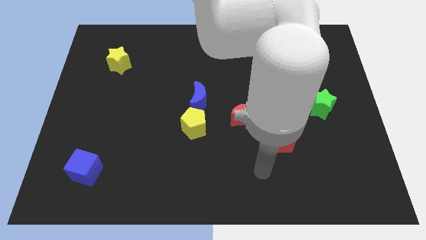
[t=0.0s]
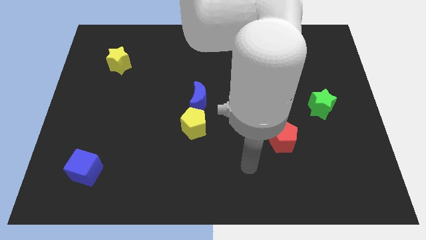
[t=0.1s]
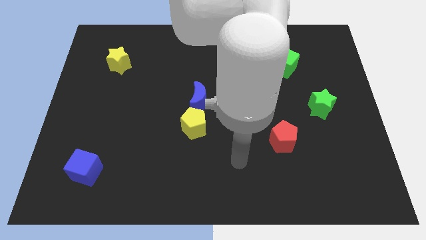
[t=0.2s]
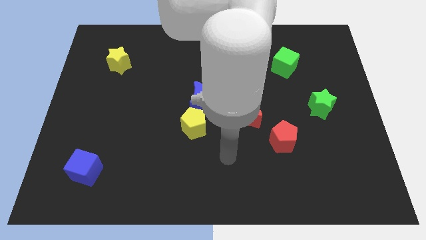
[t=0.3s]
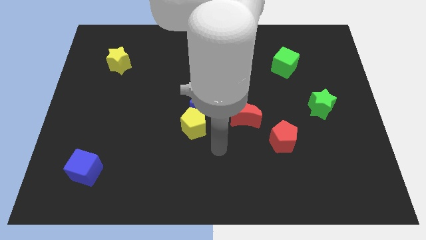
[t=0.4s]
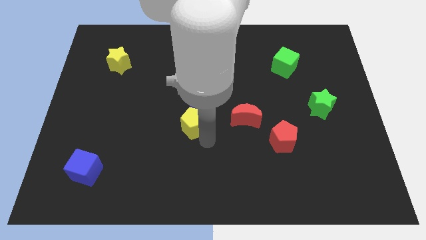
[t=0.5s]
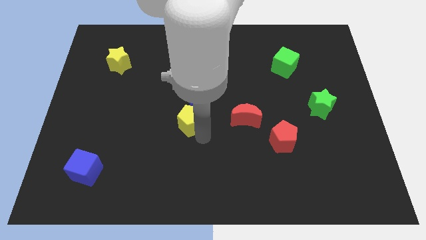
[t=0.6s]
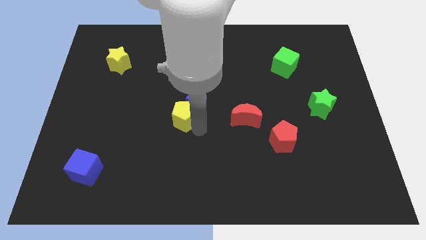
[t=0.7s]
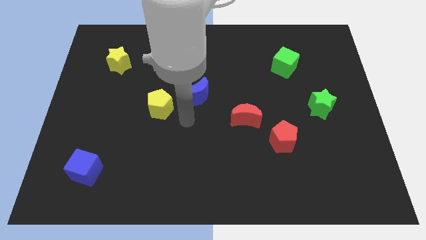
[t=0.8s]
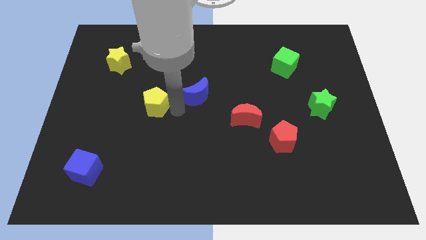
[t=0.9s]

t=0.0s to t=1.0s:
pull the blue moon apart from the yellow pentagon

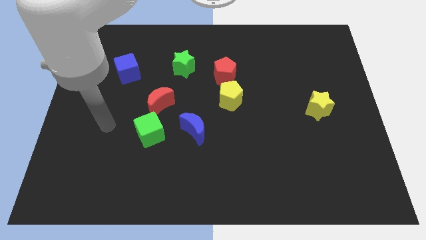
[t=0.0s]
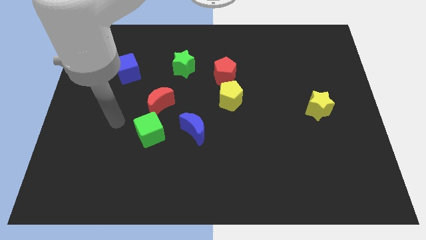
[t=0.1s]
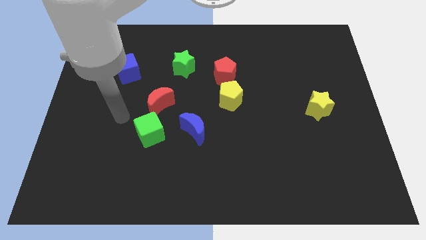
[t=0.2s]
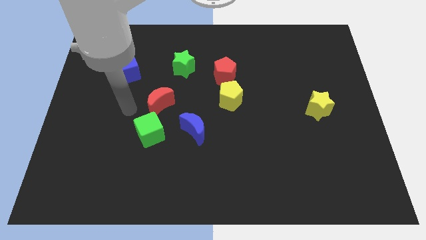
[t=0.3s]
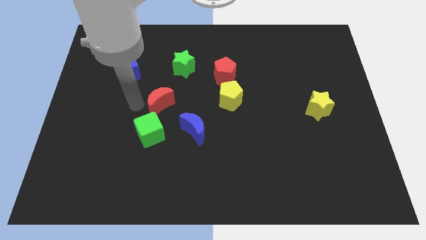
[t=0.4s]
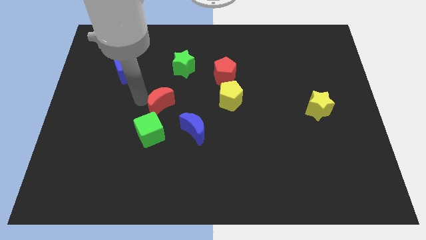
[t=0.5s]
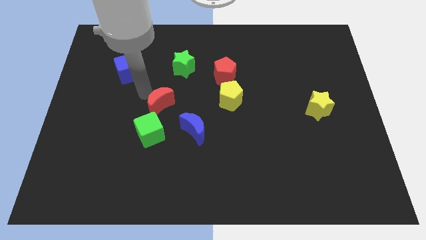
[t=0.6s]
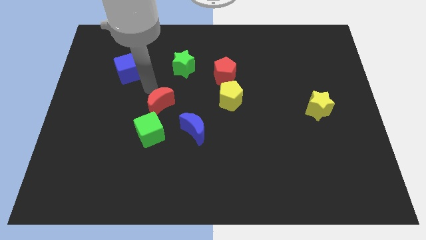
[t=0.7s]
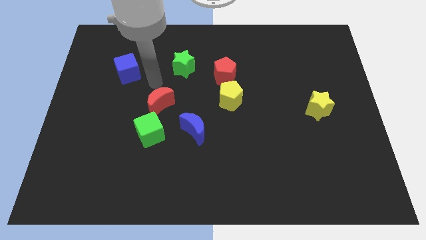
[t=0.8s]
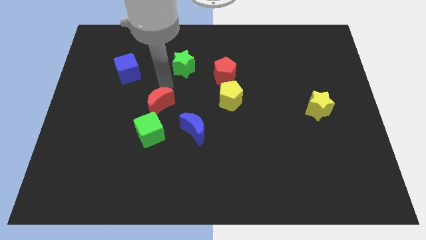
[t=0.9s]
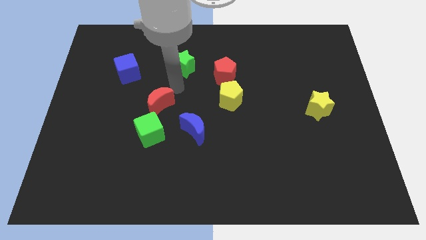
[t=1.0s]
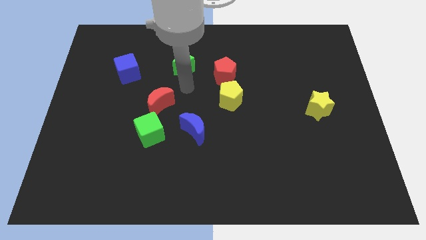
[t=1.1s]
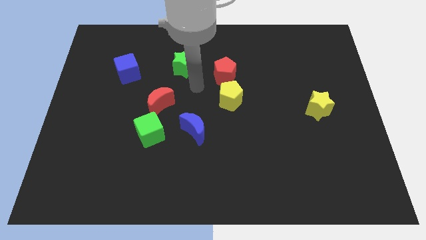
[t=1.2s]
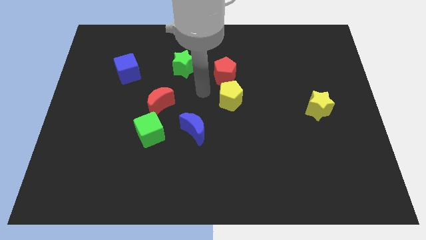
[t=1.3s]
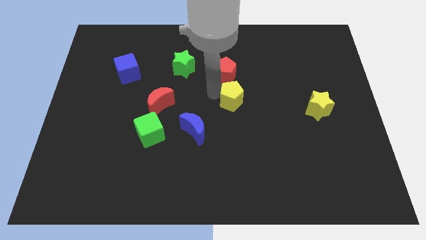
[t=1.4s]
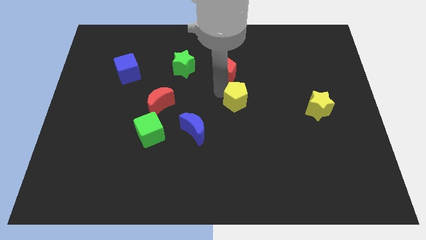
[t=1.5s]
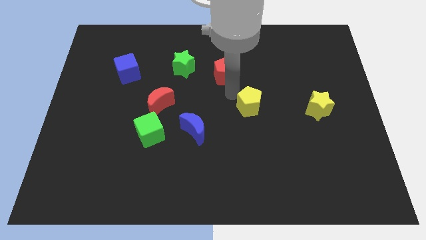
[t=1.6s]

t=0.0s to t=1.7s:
pull the red pentagon apart from the yellow pentagon

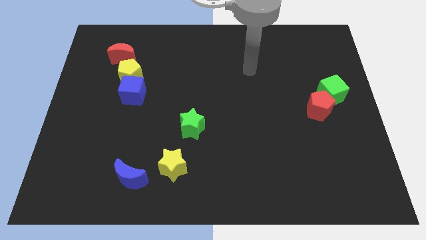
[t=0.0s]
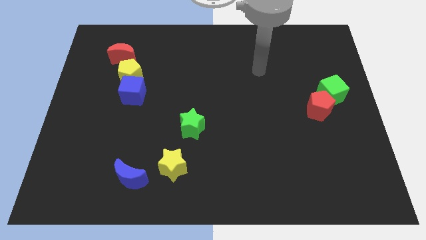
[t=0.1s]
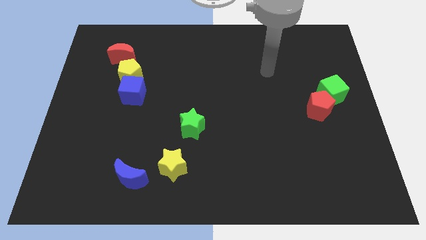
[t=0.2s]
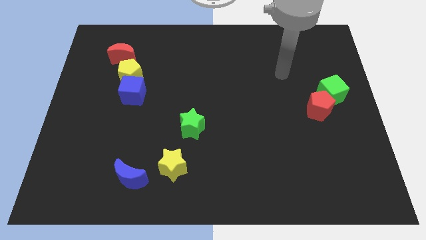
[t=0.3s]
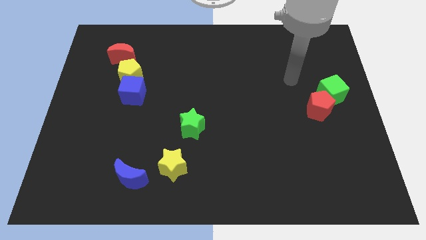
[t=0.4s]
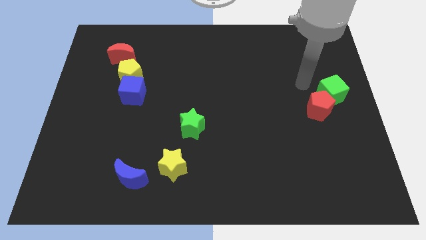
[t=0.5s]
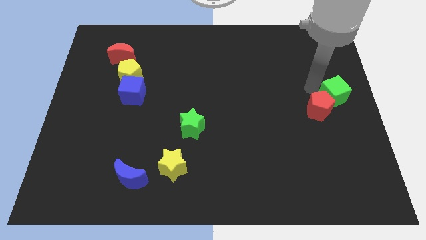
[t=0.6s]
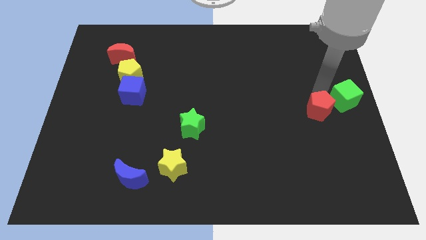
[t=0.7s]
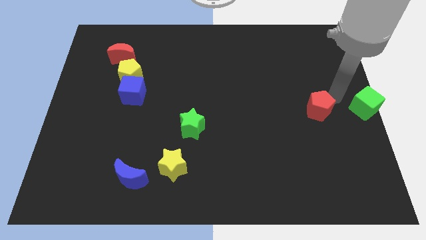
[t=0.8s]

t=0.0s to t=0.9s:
pull the red pentagon apart from the green cube

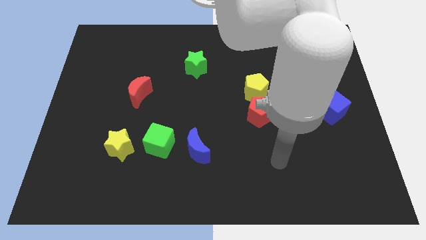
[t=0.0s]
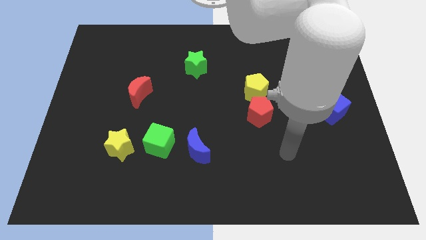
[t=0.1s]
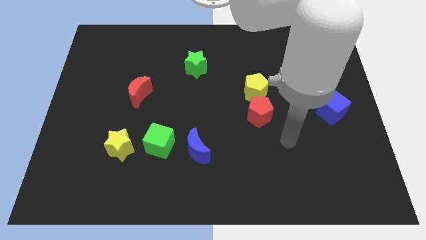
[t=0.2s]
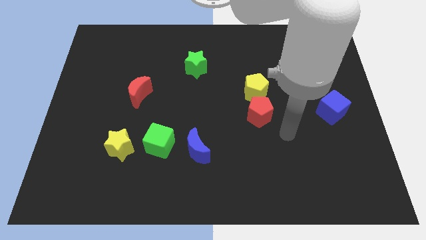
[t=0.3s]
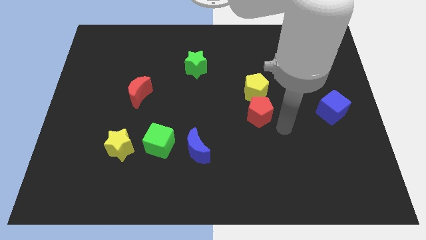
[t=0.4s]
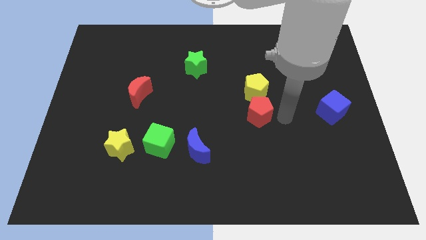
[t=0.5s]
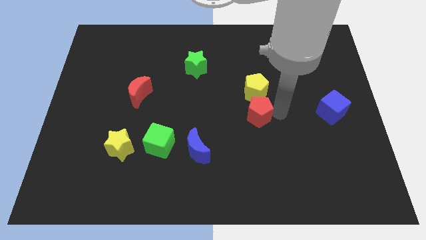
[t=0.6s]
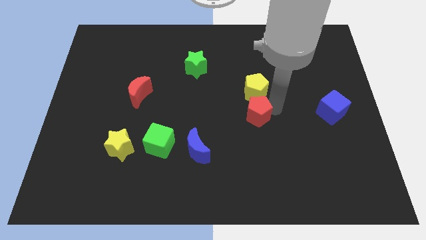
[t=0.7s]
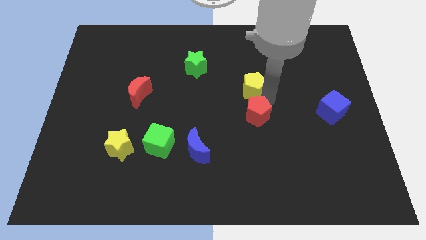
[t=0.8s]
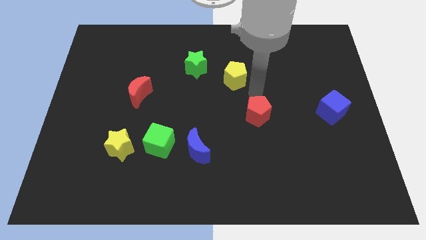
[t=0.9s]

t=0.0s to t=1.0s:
move the red pentagon away from the yellow pentagon

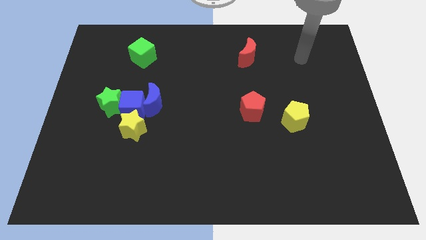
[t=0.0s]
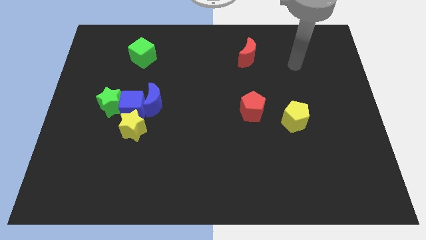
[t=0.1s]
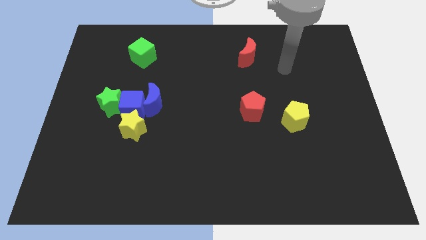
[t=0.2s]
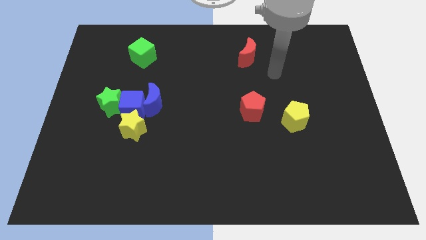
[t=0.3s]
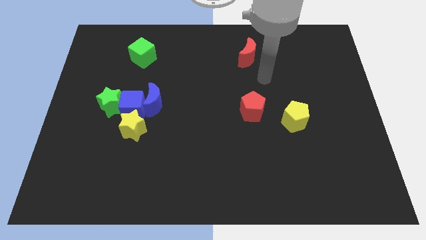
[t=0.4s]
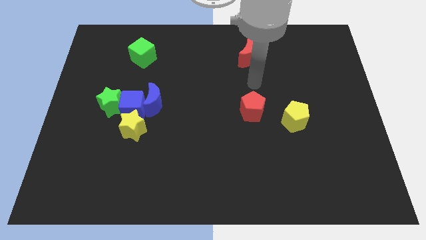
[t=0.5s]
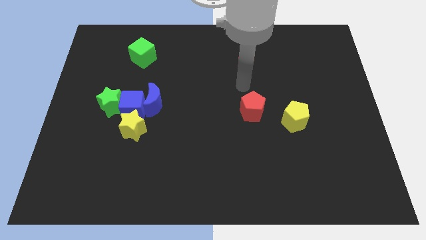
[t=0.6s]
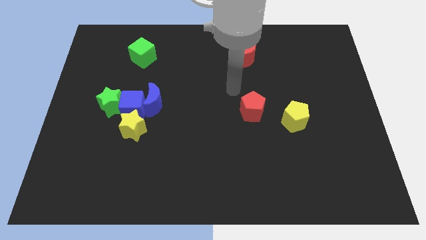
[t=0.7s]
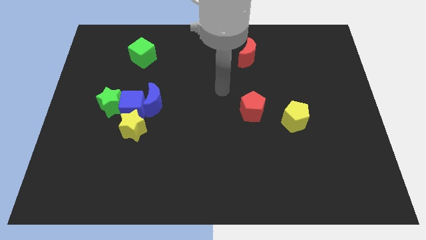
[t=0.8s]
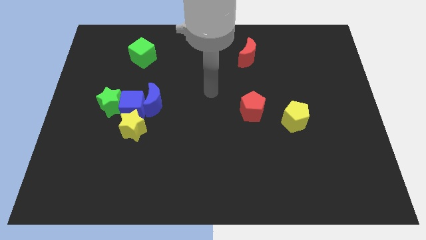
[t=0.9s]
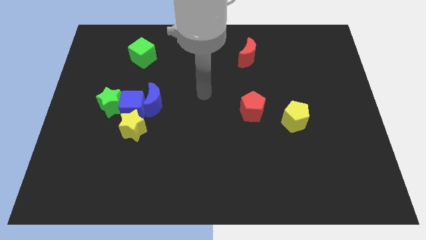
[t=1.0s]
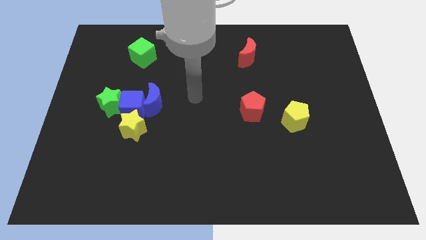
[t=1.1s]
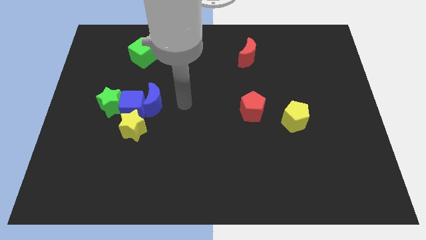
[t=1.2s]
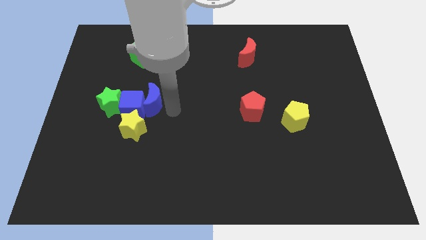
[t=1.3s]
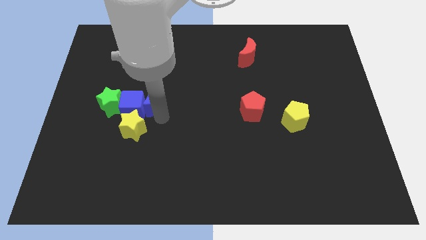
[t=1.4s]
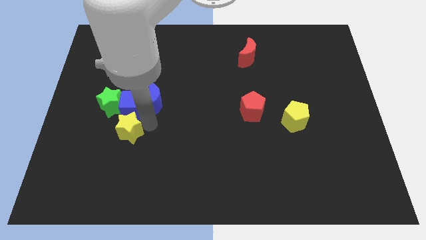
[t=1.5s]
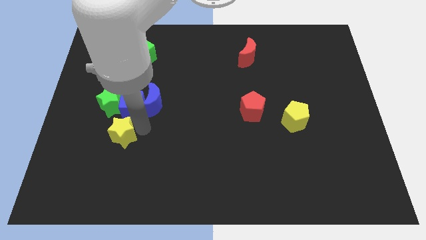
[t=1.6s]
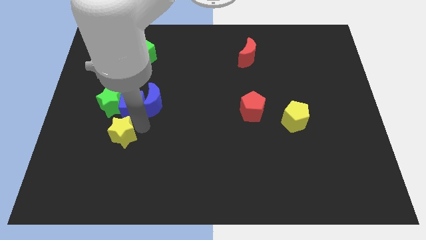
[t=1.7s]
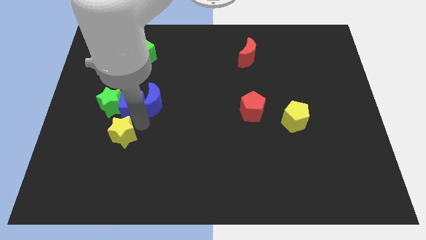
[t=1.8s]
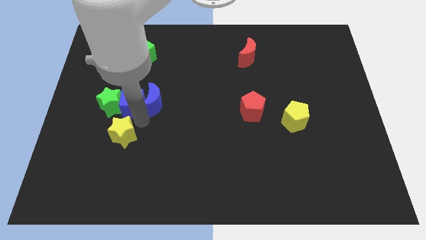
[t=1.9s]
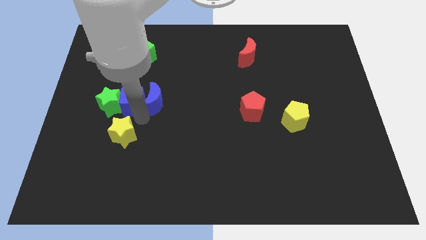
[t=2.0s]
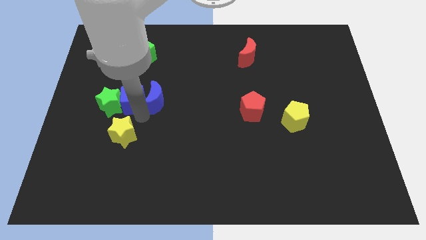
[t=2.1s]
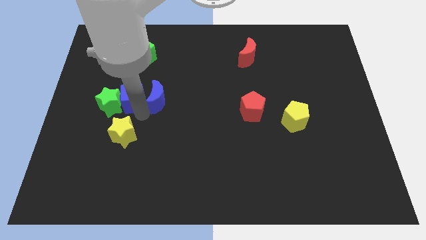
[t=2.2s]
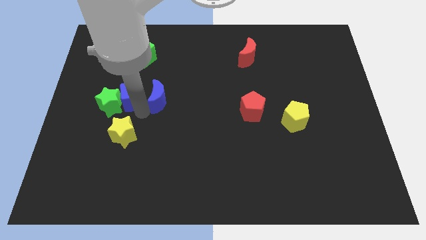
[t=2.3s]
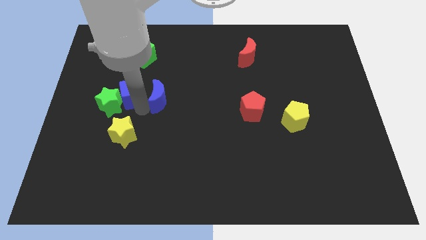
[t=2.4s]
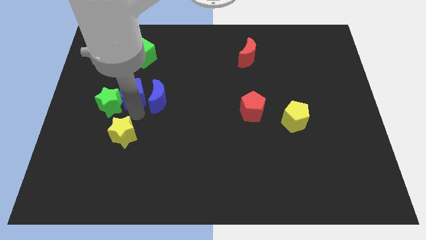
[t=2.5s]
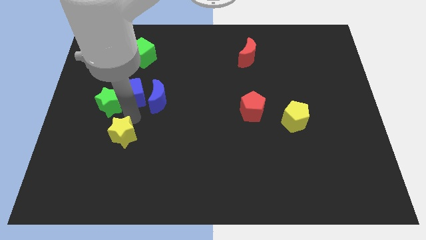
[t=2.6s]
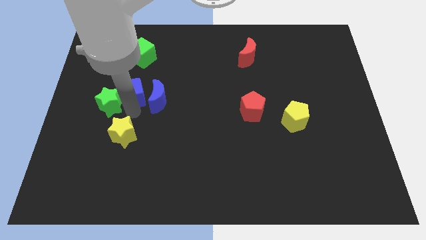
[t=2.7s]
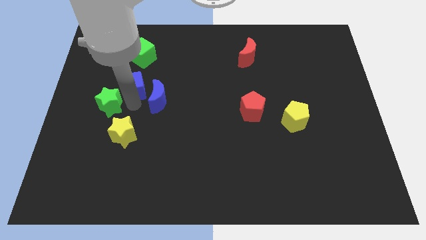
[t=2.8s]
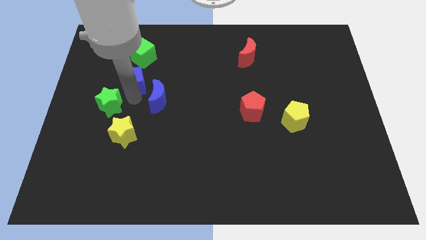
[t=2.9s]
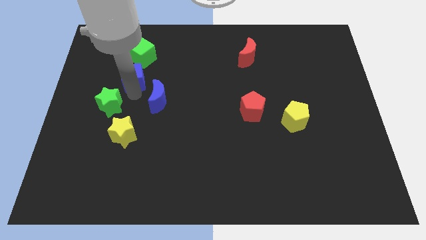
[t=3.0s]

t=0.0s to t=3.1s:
pull the blue cube apart from the group

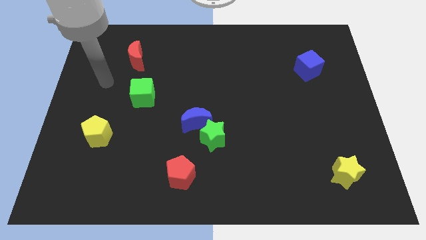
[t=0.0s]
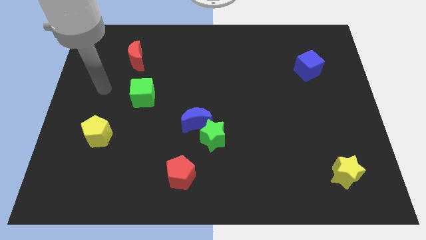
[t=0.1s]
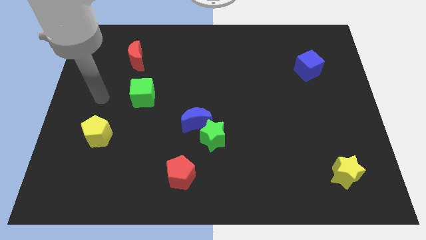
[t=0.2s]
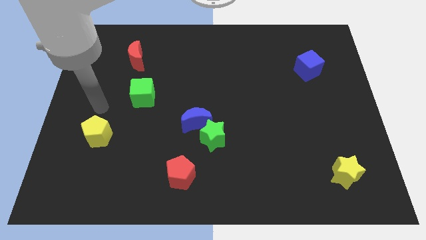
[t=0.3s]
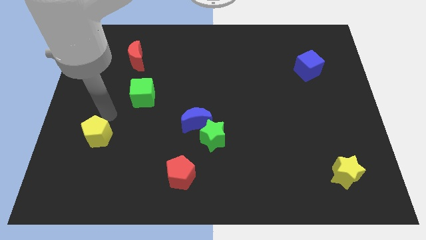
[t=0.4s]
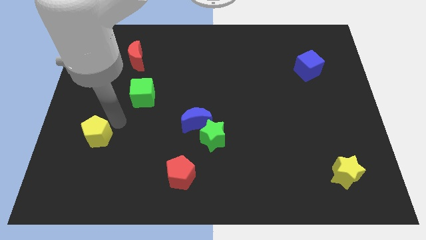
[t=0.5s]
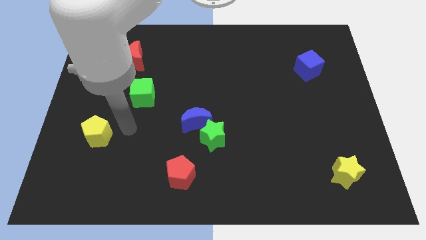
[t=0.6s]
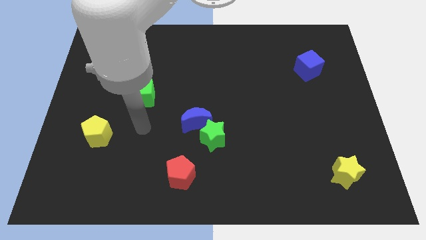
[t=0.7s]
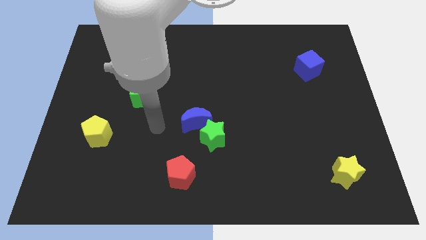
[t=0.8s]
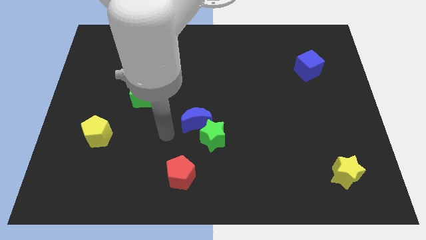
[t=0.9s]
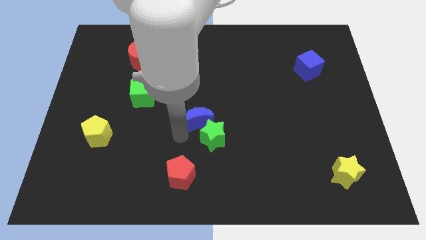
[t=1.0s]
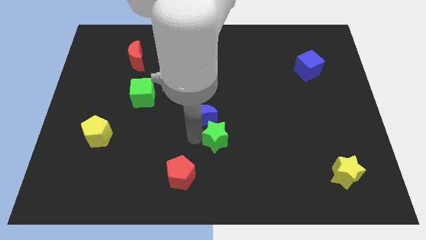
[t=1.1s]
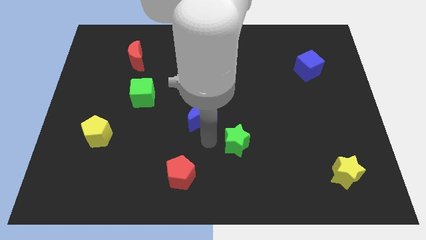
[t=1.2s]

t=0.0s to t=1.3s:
move the blue moon away from the green star

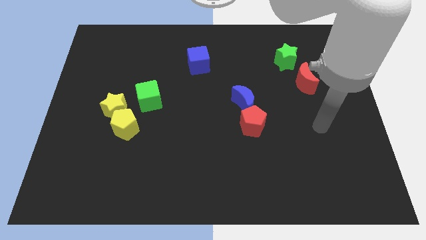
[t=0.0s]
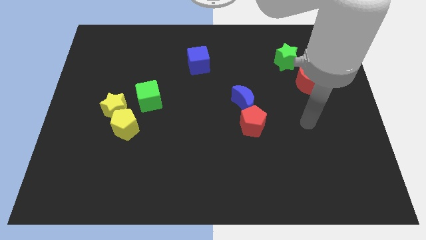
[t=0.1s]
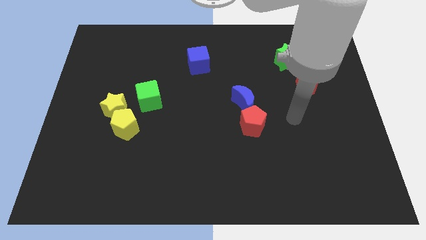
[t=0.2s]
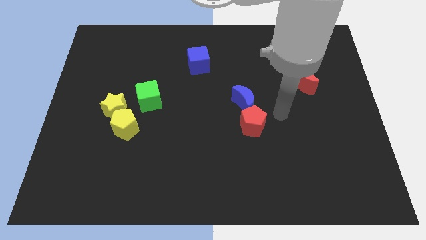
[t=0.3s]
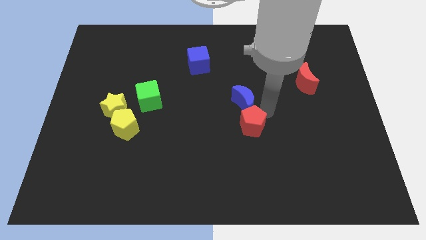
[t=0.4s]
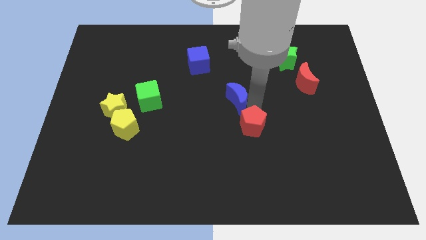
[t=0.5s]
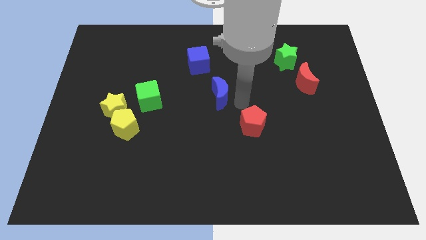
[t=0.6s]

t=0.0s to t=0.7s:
pull the red pentagon apart from the blue moon
